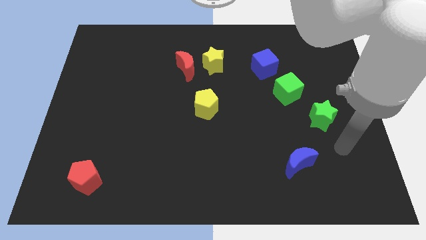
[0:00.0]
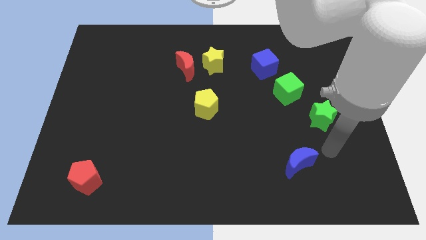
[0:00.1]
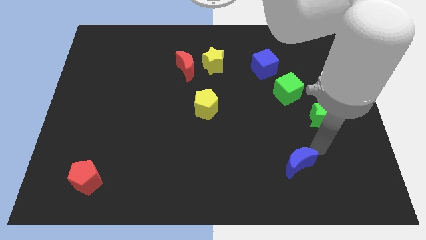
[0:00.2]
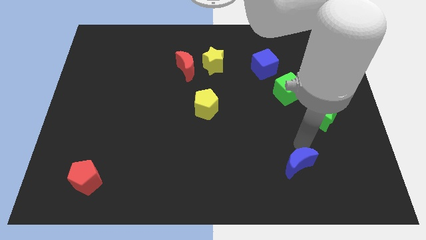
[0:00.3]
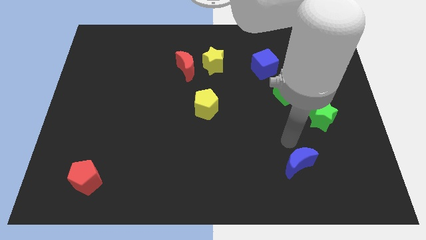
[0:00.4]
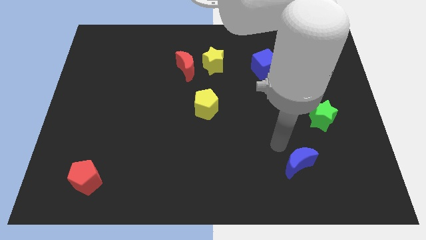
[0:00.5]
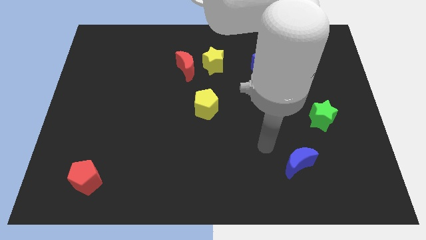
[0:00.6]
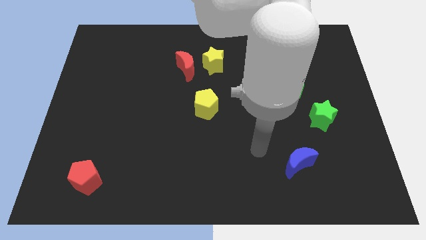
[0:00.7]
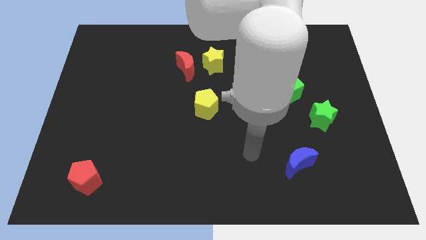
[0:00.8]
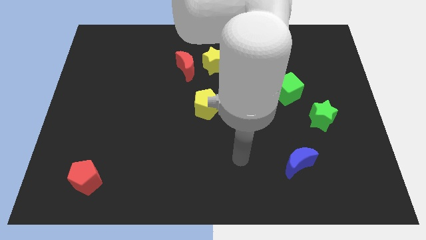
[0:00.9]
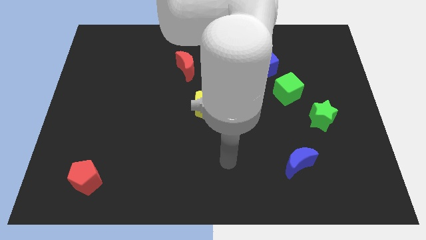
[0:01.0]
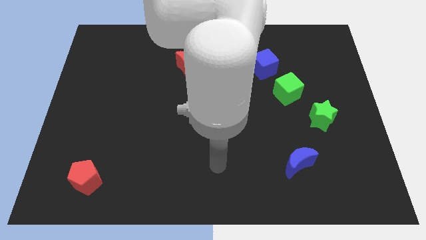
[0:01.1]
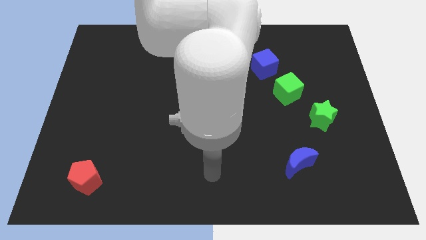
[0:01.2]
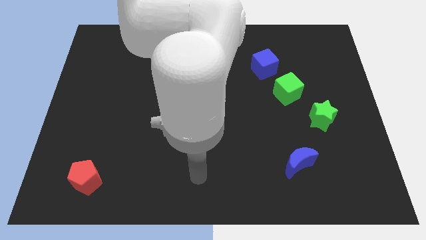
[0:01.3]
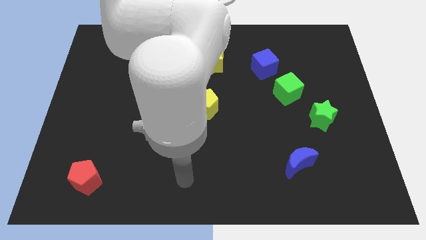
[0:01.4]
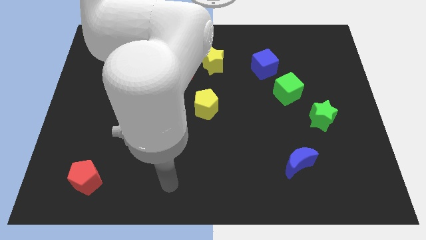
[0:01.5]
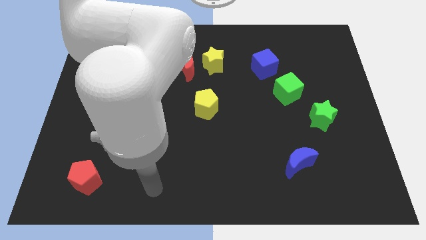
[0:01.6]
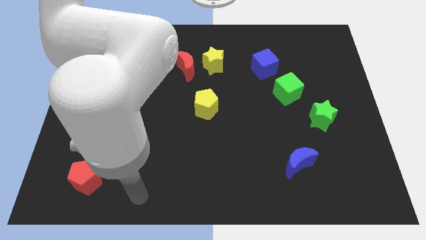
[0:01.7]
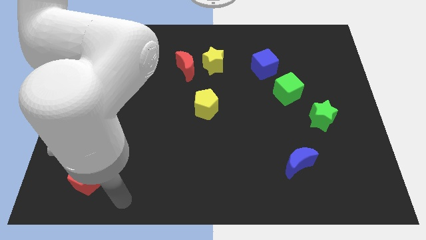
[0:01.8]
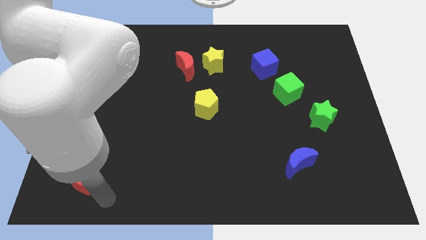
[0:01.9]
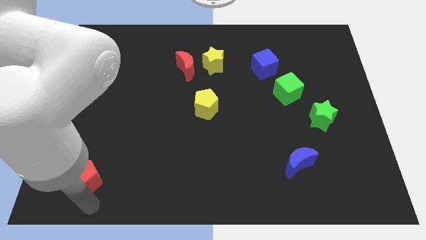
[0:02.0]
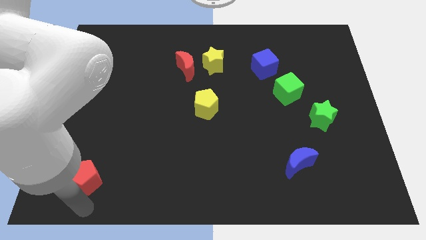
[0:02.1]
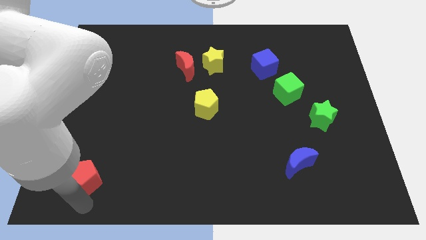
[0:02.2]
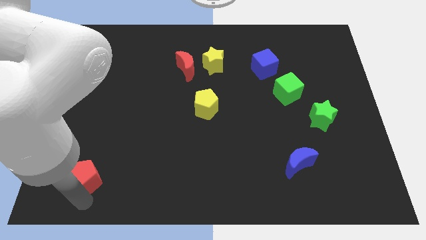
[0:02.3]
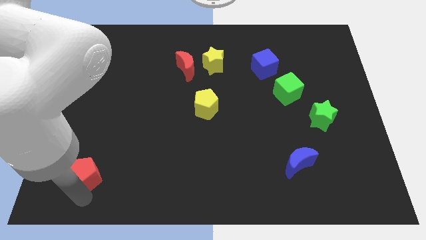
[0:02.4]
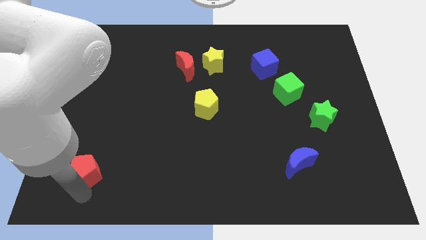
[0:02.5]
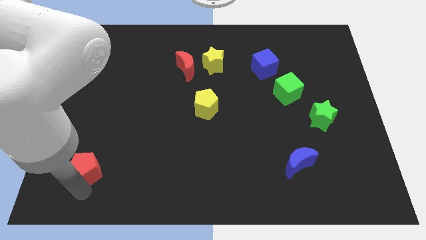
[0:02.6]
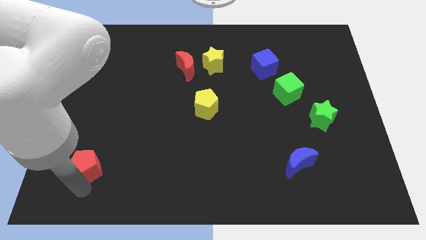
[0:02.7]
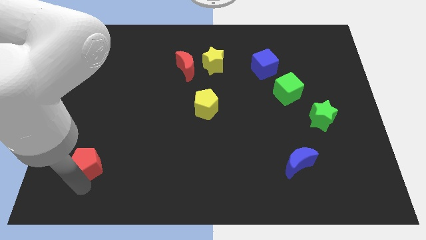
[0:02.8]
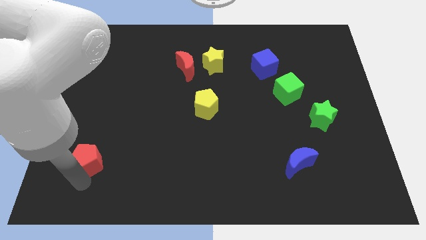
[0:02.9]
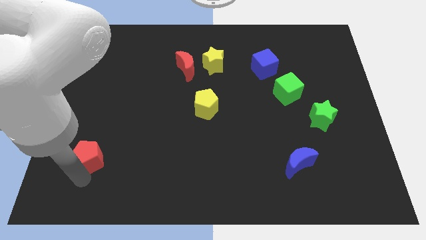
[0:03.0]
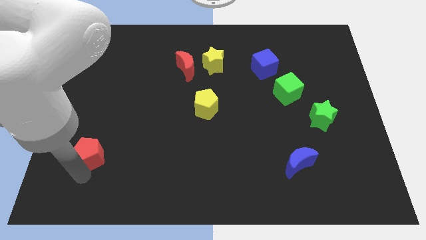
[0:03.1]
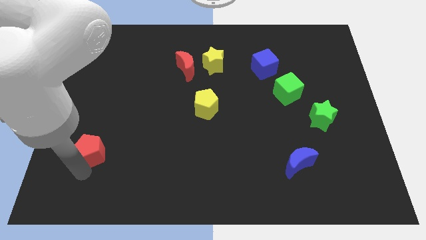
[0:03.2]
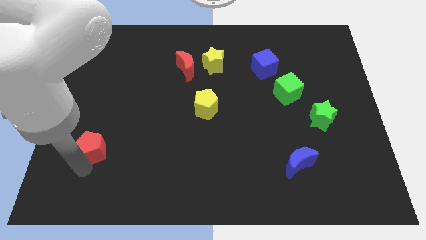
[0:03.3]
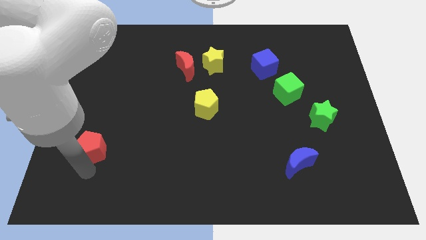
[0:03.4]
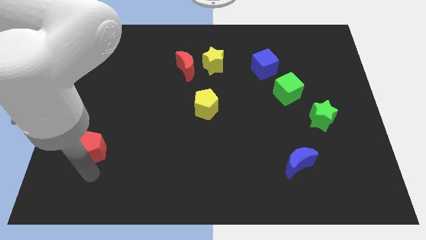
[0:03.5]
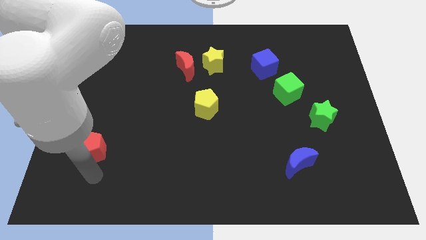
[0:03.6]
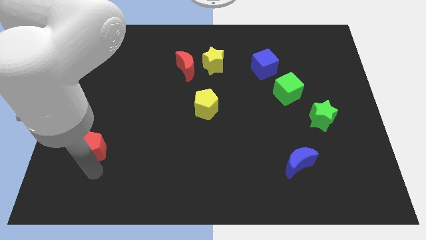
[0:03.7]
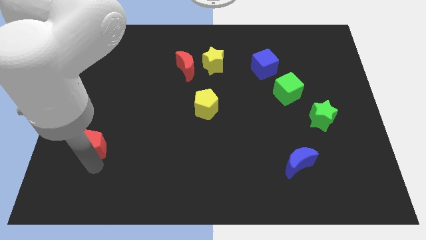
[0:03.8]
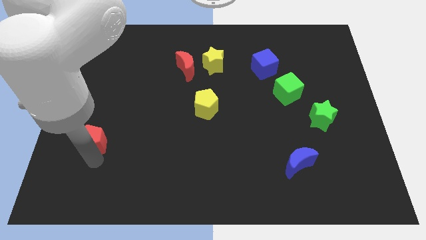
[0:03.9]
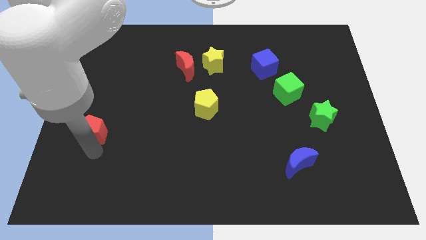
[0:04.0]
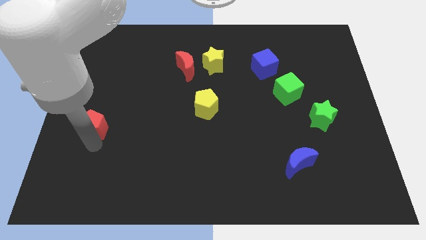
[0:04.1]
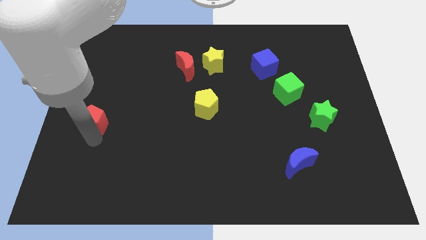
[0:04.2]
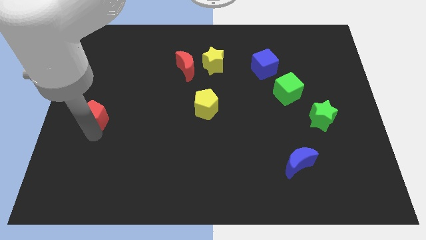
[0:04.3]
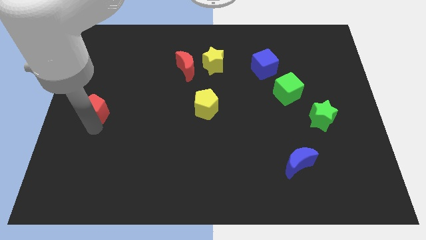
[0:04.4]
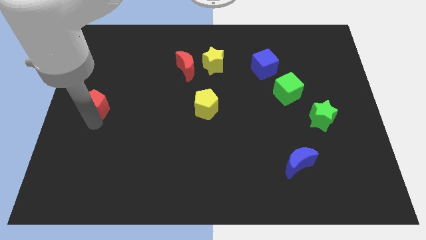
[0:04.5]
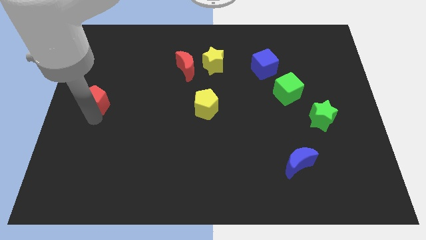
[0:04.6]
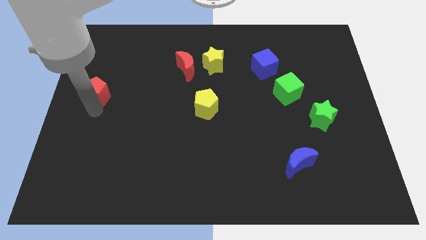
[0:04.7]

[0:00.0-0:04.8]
push the red pentagon up

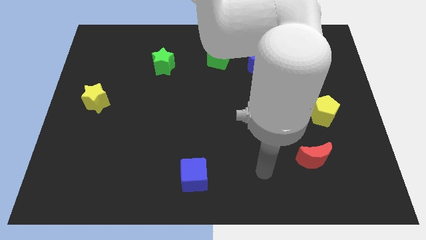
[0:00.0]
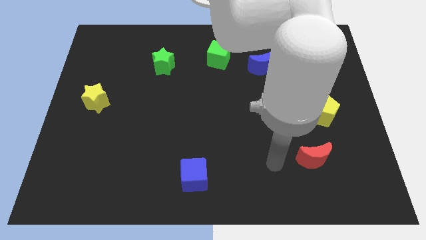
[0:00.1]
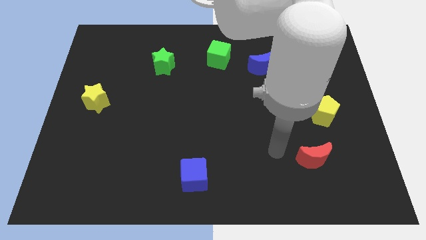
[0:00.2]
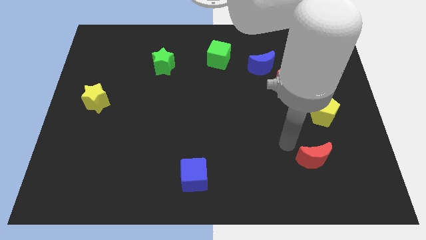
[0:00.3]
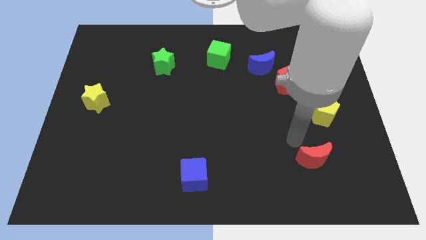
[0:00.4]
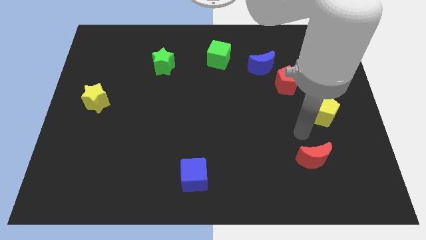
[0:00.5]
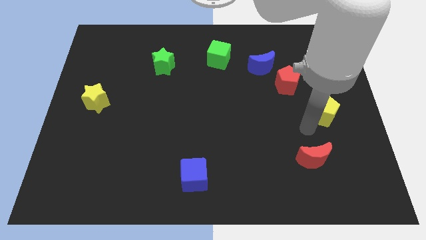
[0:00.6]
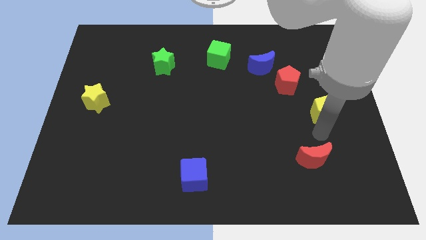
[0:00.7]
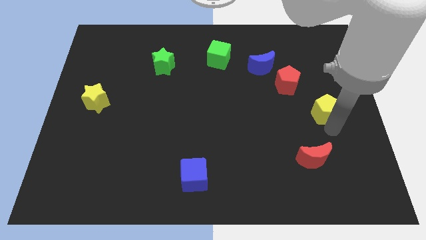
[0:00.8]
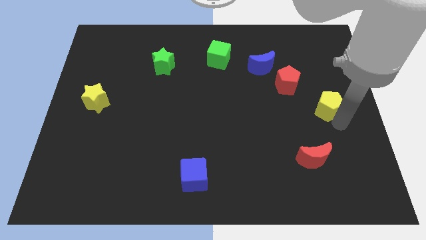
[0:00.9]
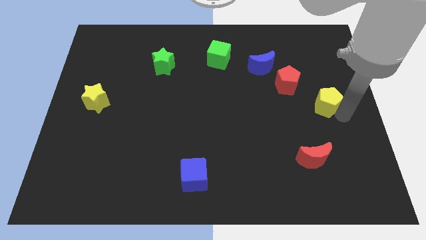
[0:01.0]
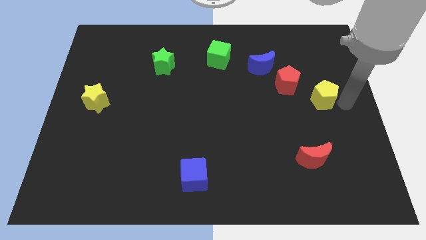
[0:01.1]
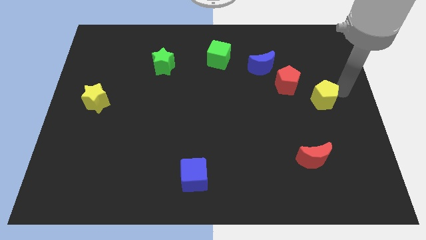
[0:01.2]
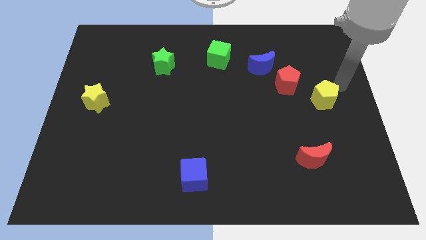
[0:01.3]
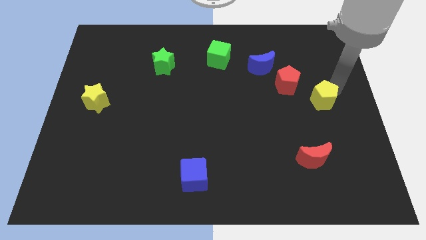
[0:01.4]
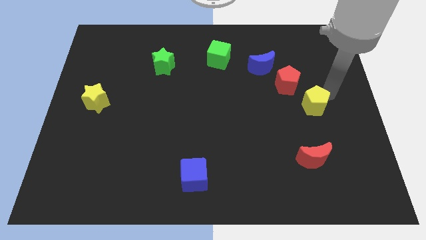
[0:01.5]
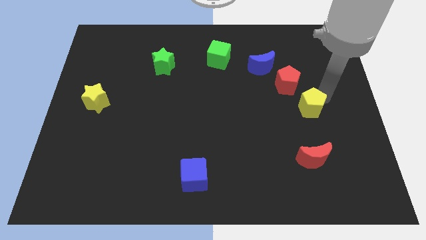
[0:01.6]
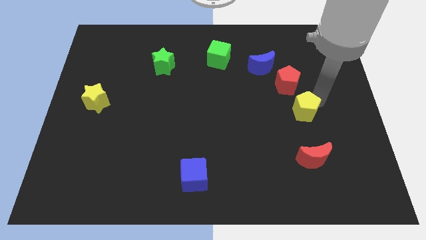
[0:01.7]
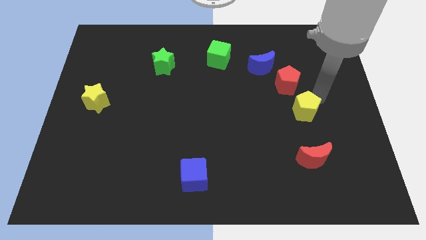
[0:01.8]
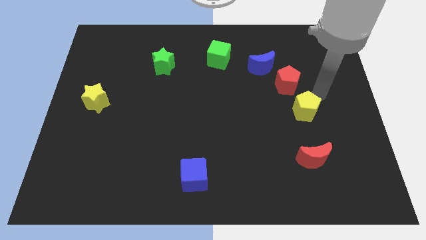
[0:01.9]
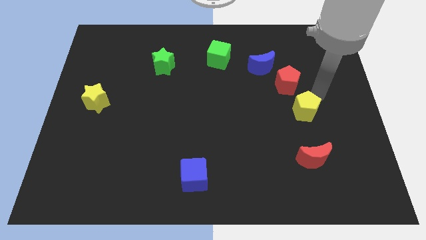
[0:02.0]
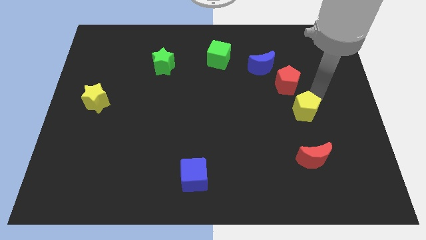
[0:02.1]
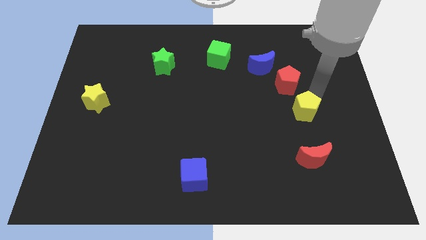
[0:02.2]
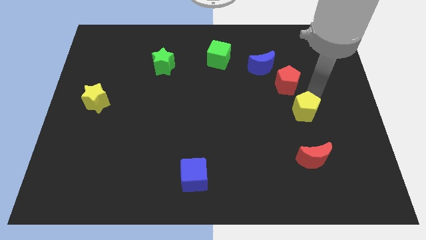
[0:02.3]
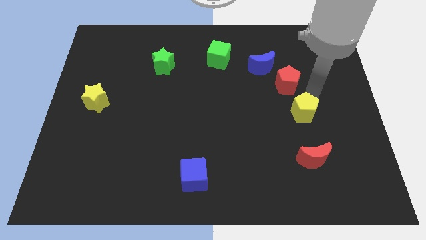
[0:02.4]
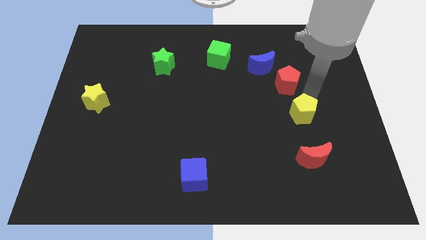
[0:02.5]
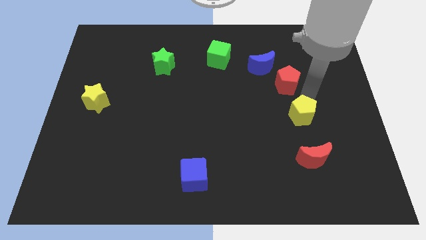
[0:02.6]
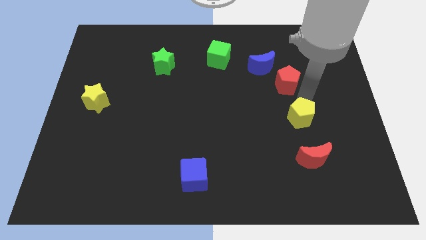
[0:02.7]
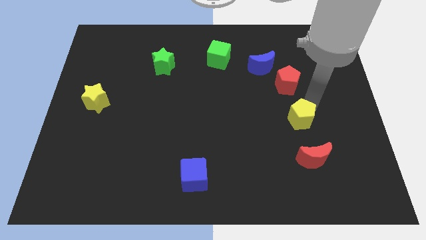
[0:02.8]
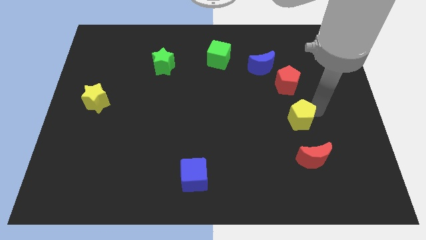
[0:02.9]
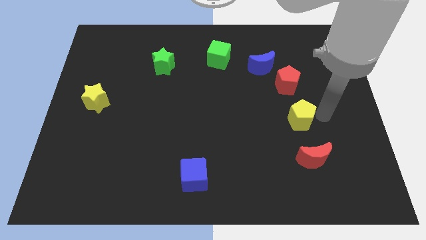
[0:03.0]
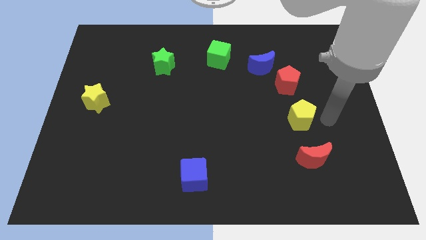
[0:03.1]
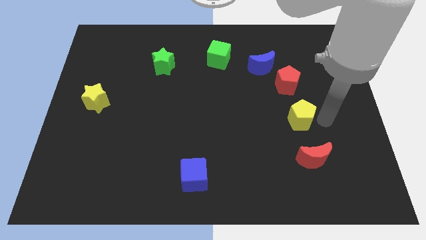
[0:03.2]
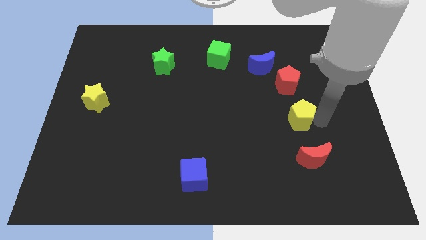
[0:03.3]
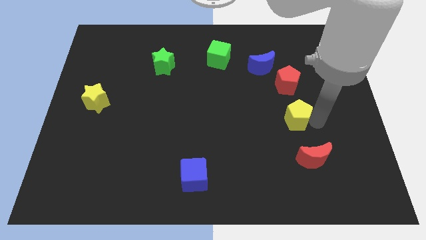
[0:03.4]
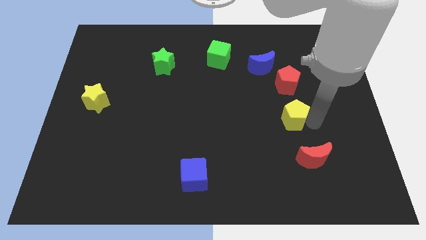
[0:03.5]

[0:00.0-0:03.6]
move the yellow pentagon to the left slightly

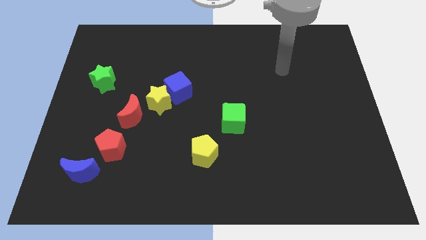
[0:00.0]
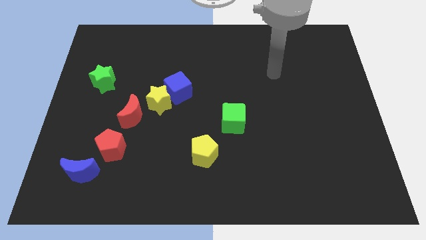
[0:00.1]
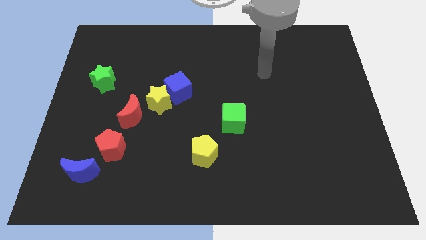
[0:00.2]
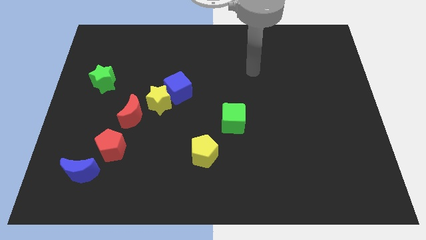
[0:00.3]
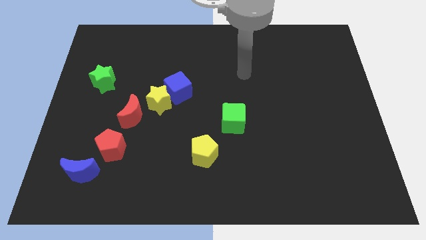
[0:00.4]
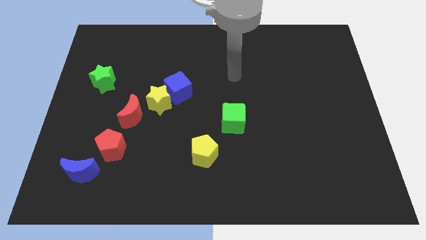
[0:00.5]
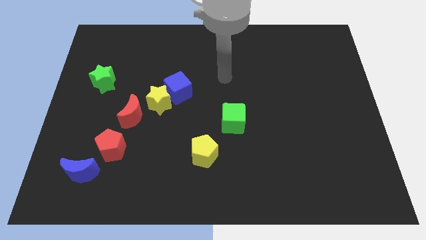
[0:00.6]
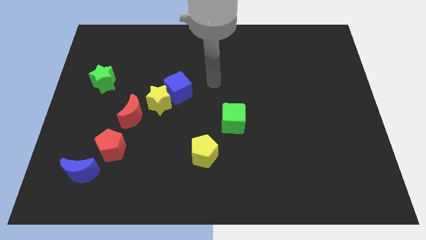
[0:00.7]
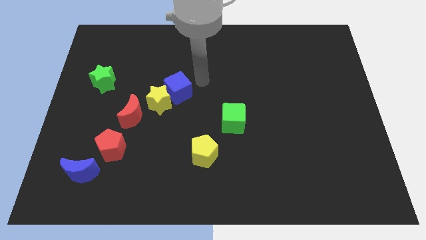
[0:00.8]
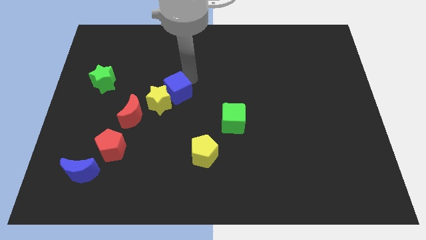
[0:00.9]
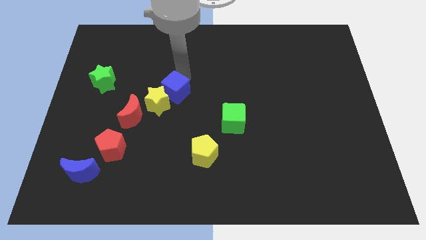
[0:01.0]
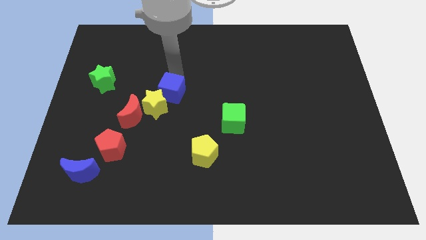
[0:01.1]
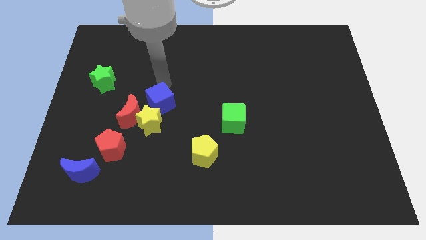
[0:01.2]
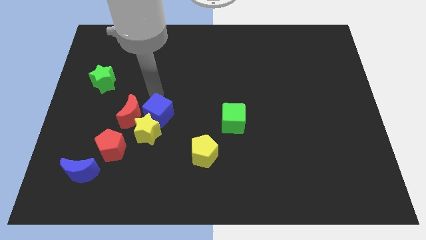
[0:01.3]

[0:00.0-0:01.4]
push the yellow star a little bit downwards
